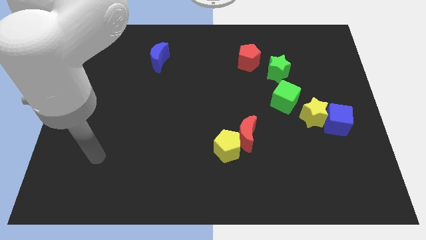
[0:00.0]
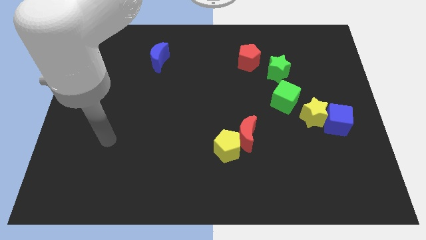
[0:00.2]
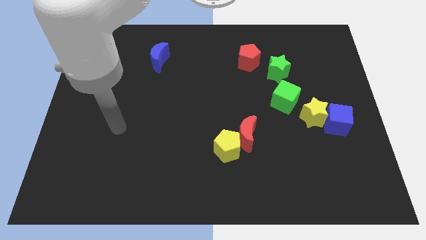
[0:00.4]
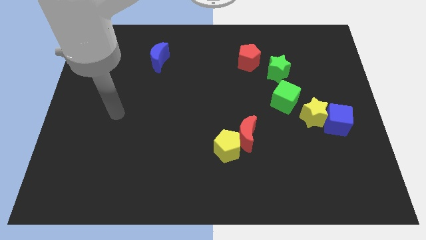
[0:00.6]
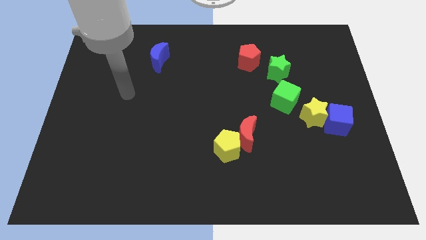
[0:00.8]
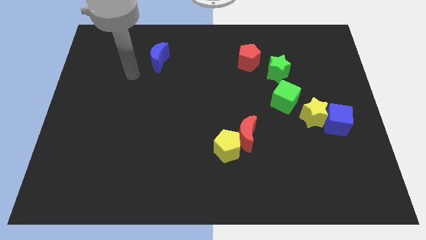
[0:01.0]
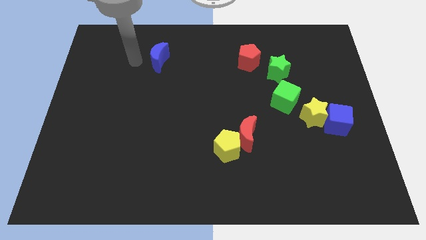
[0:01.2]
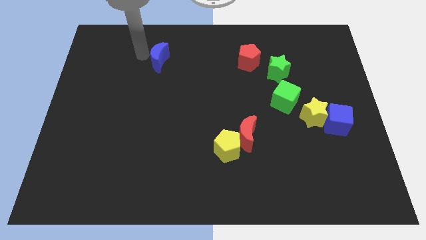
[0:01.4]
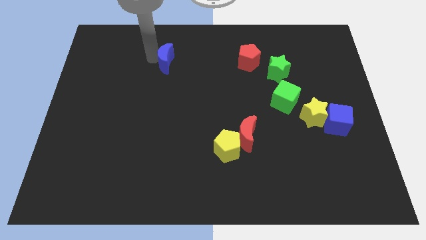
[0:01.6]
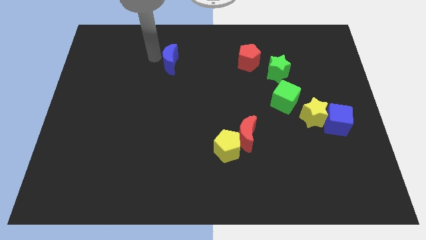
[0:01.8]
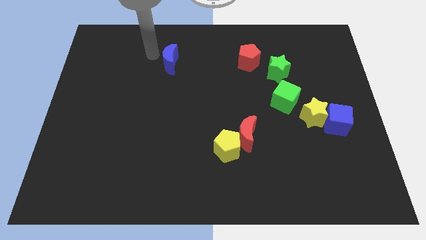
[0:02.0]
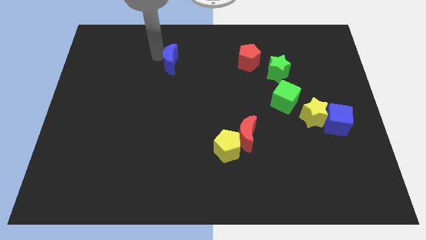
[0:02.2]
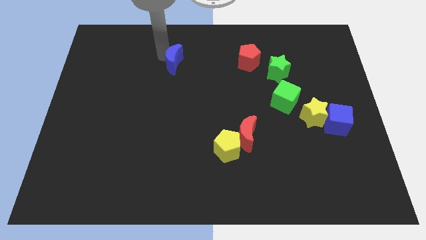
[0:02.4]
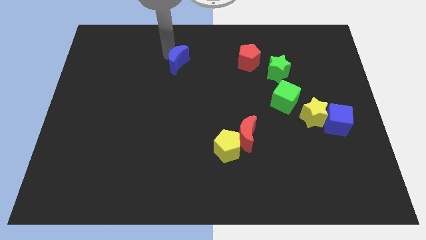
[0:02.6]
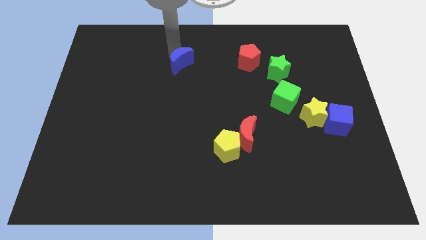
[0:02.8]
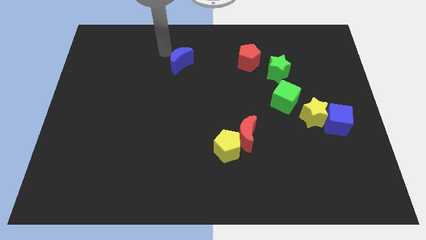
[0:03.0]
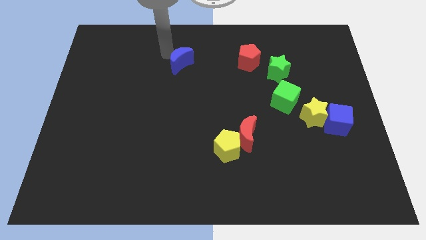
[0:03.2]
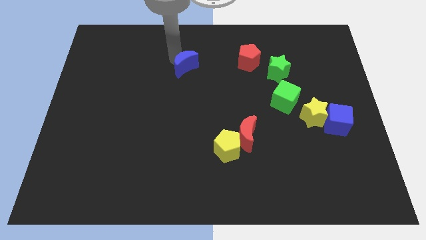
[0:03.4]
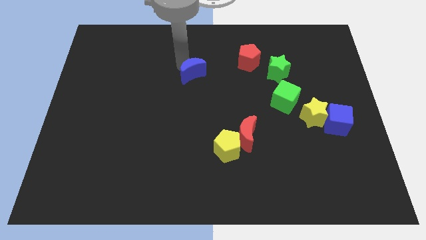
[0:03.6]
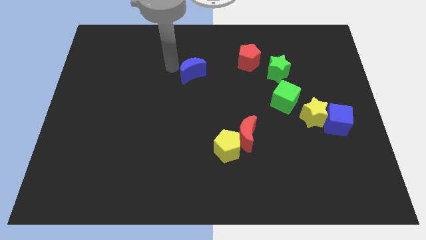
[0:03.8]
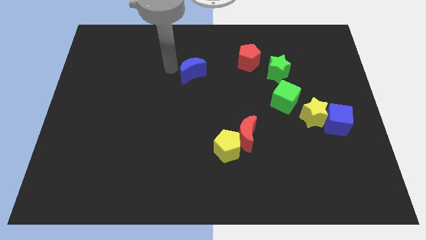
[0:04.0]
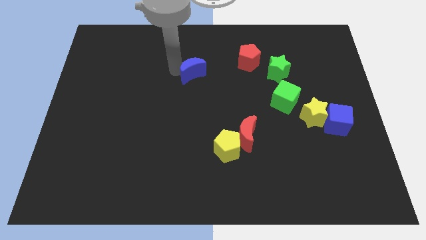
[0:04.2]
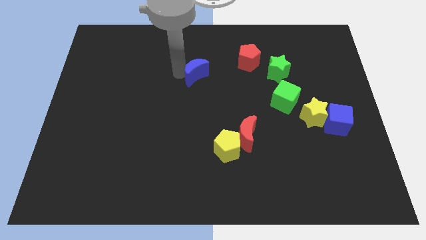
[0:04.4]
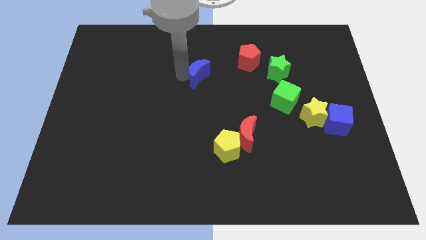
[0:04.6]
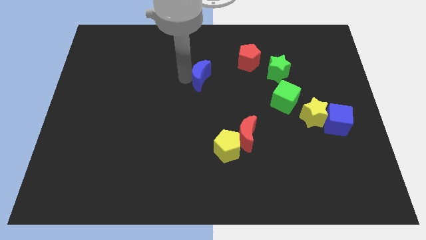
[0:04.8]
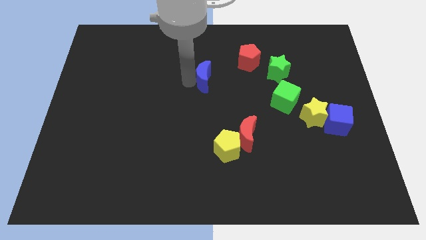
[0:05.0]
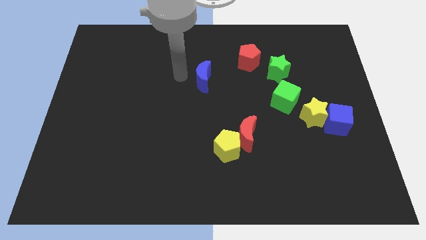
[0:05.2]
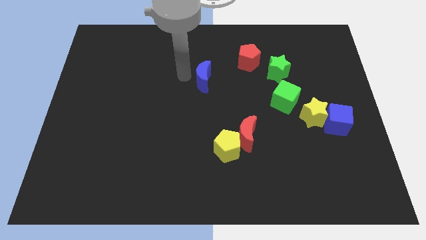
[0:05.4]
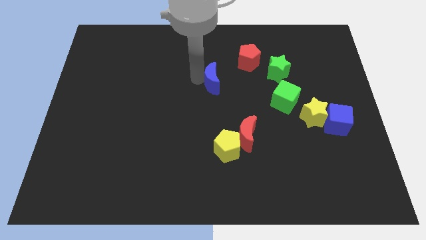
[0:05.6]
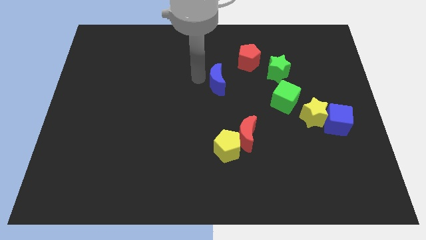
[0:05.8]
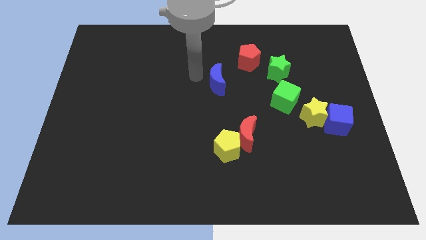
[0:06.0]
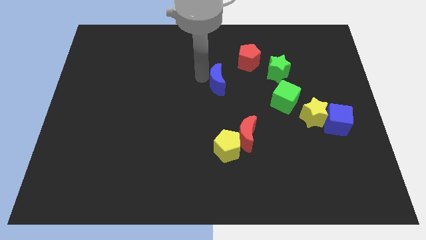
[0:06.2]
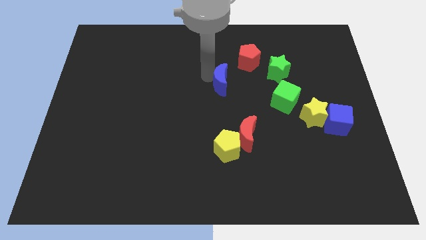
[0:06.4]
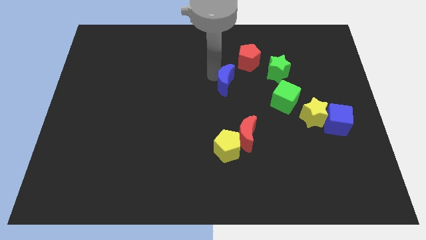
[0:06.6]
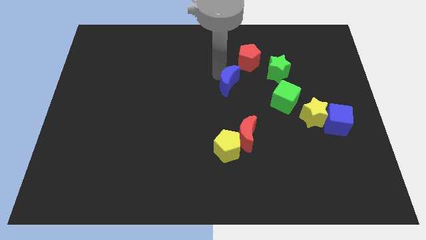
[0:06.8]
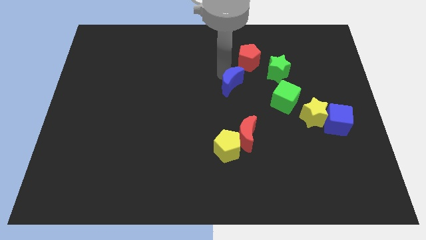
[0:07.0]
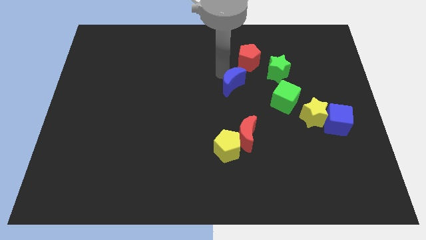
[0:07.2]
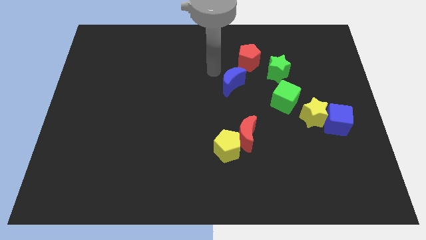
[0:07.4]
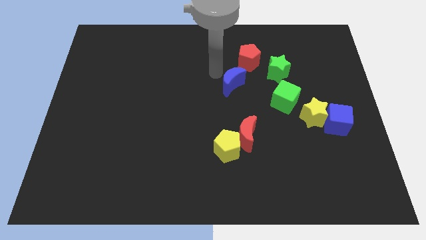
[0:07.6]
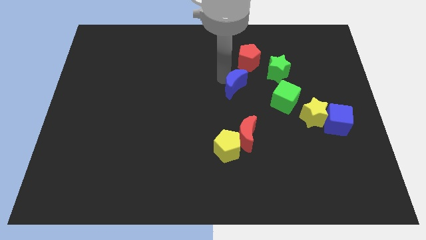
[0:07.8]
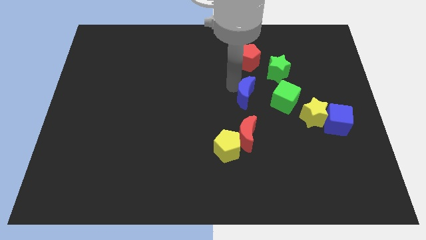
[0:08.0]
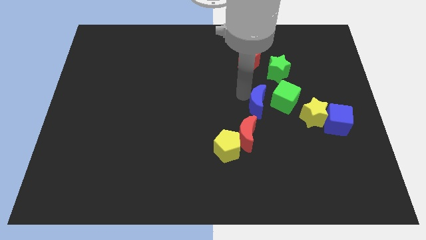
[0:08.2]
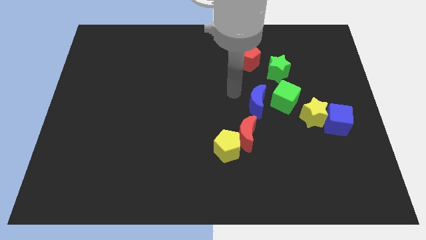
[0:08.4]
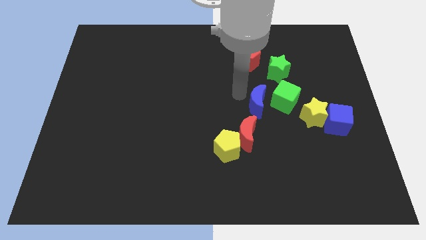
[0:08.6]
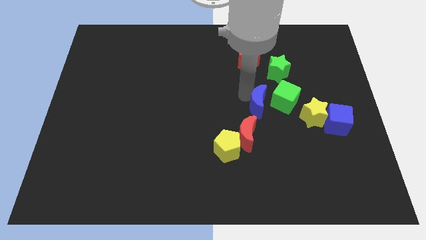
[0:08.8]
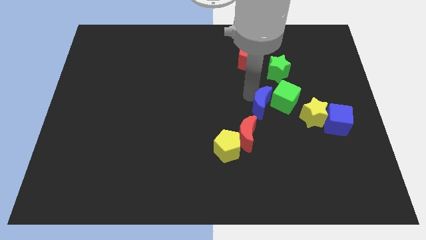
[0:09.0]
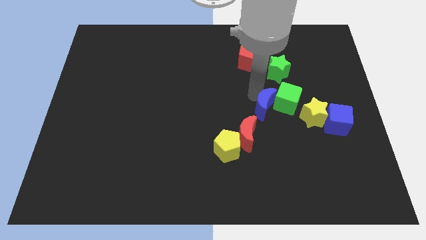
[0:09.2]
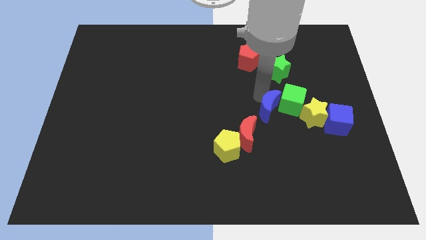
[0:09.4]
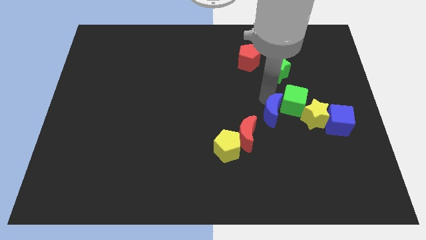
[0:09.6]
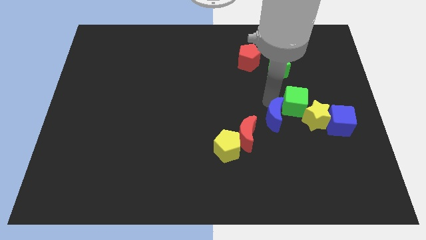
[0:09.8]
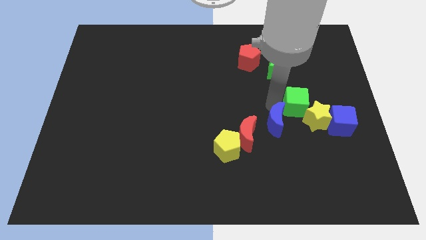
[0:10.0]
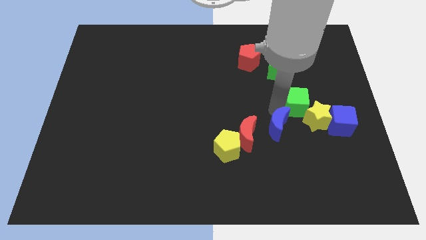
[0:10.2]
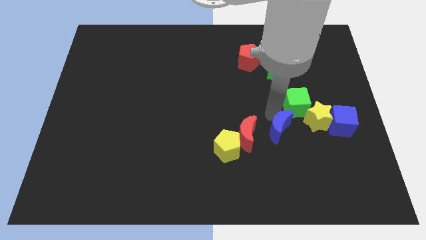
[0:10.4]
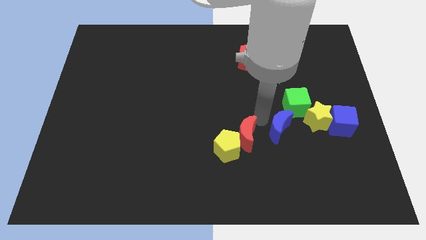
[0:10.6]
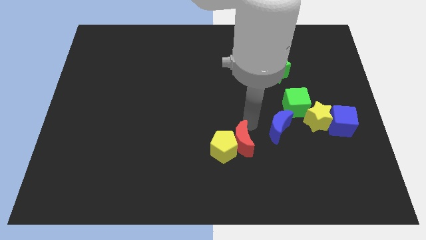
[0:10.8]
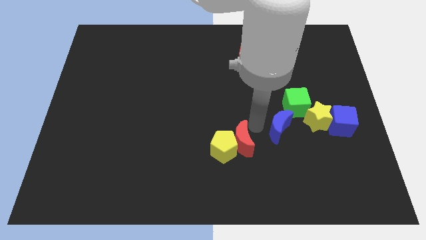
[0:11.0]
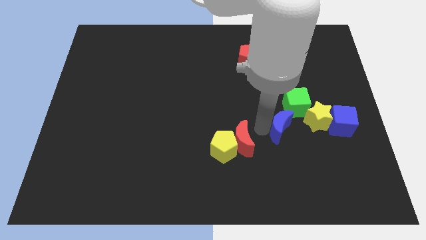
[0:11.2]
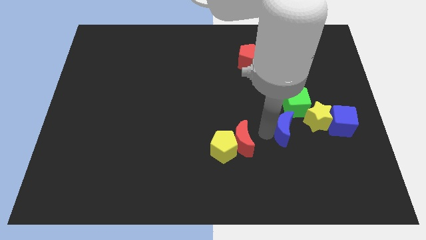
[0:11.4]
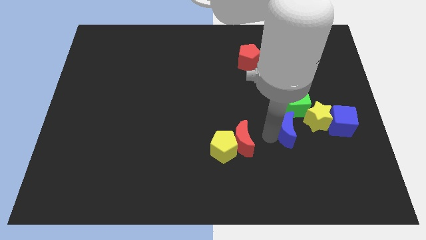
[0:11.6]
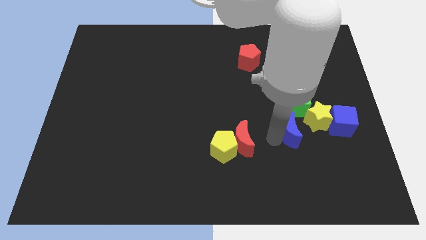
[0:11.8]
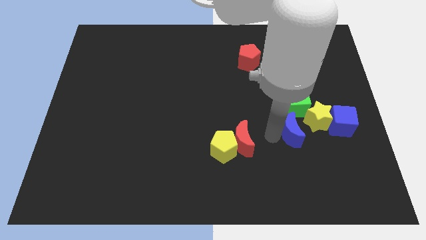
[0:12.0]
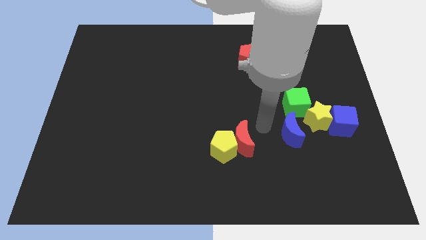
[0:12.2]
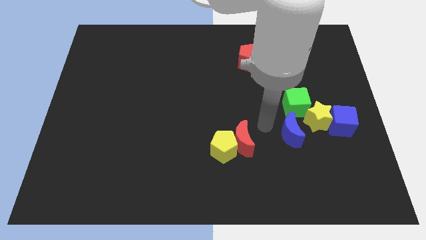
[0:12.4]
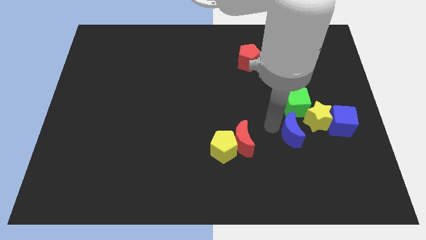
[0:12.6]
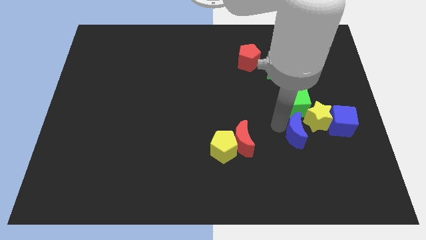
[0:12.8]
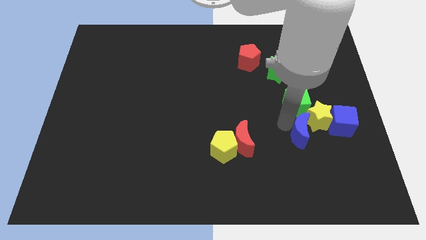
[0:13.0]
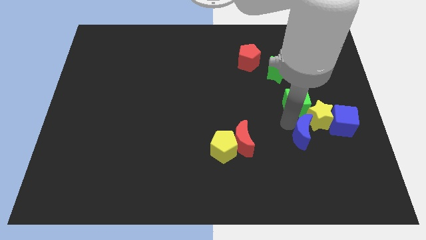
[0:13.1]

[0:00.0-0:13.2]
slide the blue moon diagonally down and to the left of the blue cube
